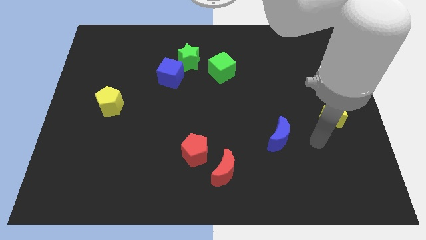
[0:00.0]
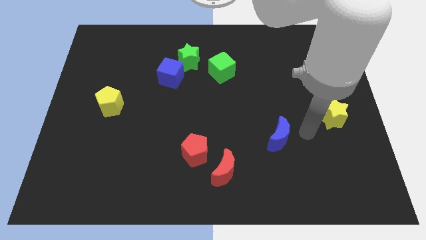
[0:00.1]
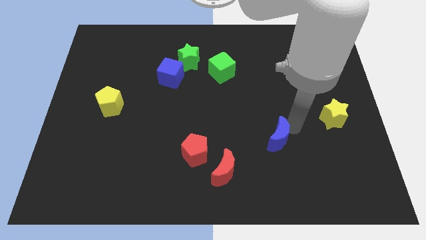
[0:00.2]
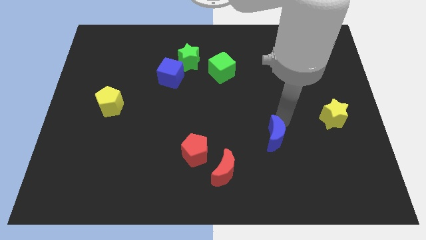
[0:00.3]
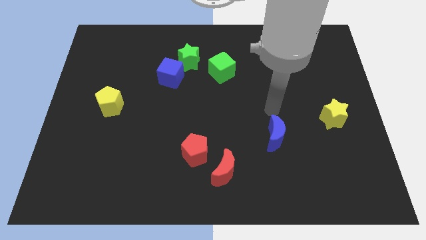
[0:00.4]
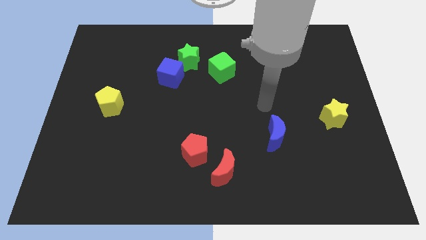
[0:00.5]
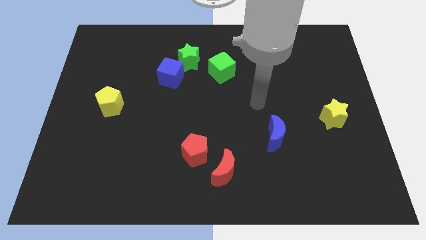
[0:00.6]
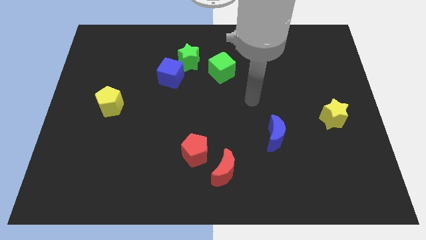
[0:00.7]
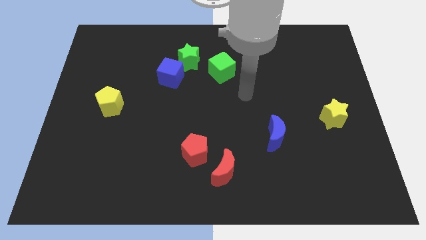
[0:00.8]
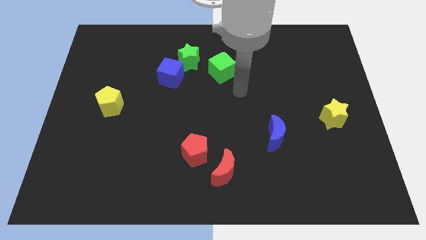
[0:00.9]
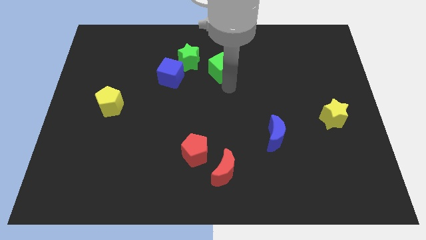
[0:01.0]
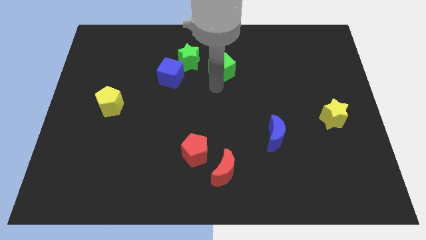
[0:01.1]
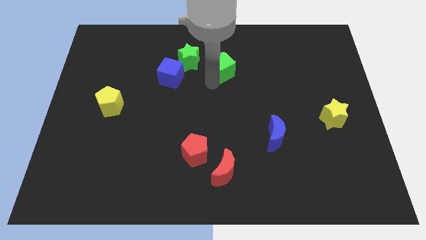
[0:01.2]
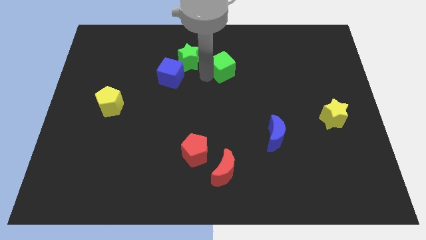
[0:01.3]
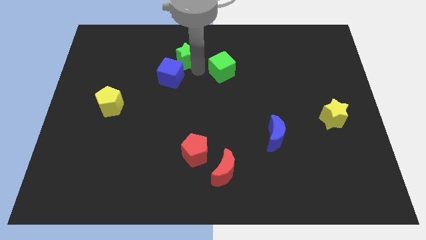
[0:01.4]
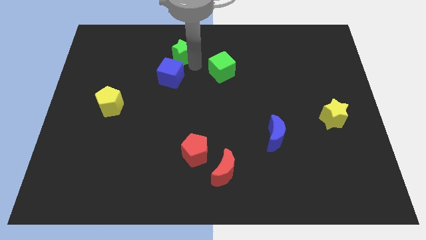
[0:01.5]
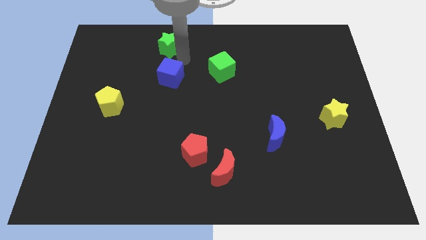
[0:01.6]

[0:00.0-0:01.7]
move the blue cube away from the green star

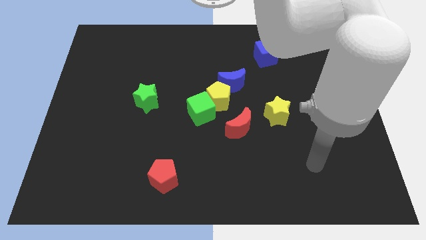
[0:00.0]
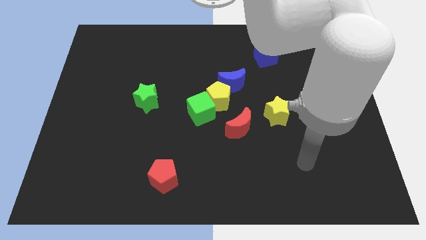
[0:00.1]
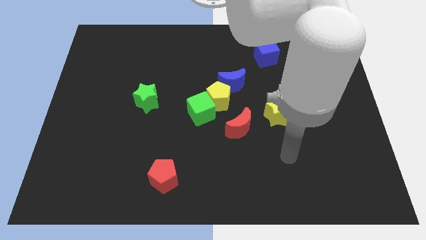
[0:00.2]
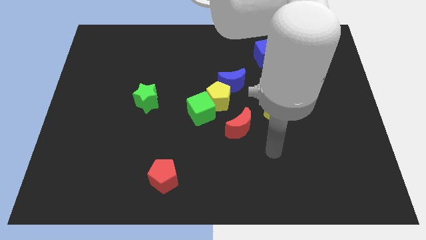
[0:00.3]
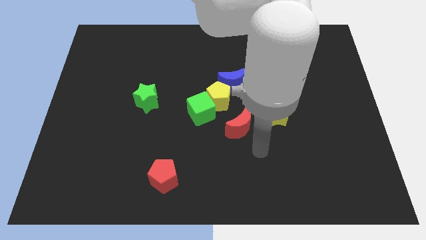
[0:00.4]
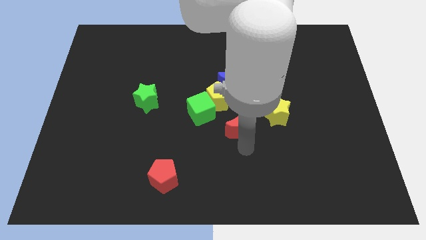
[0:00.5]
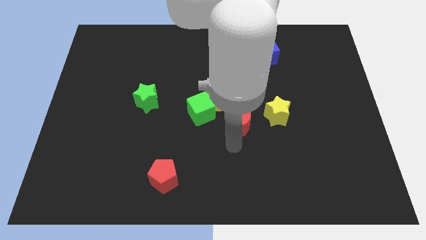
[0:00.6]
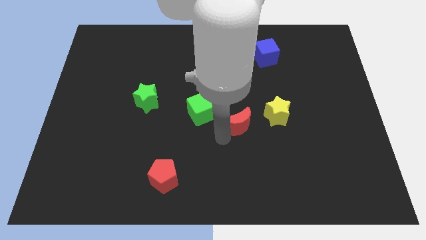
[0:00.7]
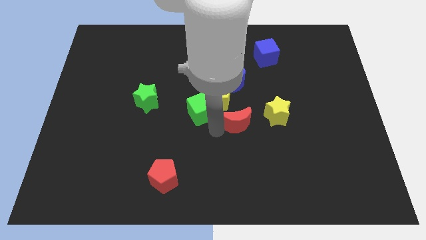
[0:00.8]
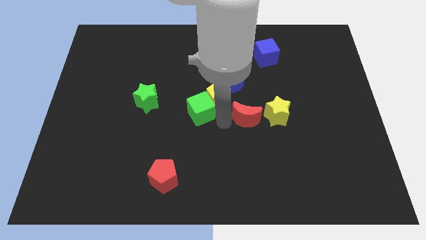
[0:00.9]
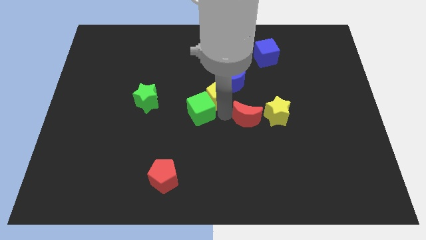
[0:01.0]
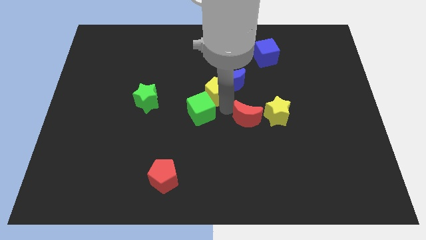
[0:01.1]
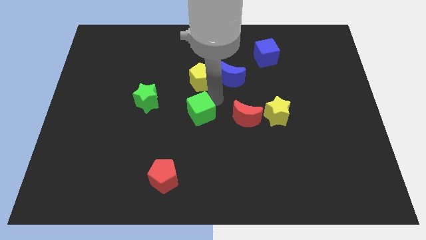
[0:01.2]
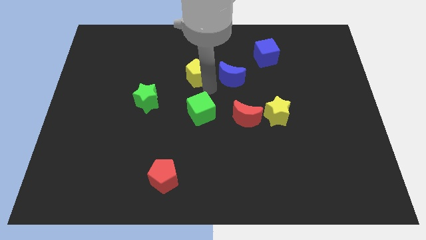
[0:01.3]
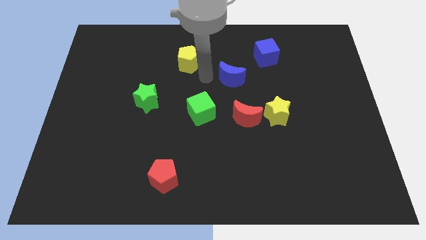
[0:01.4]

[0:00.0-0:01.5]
separate the blue moon from the yellow pentagon

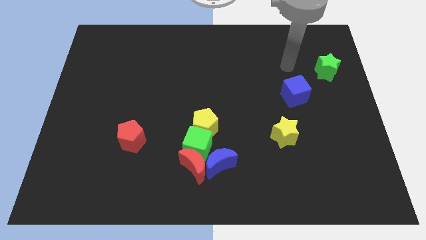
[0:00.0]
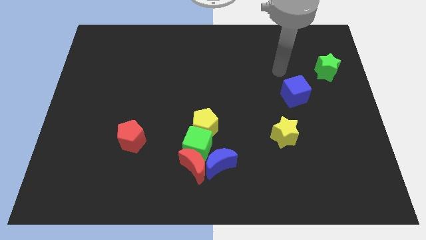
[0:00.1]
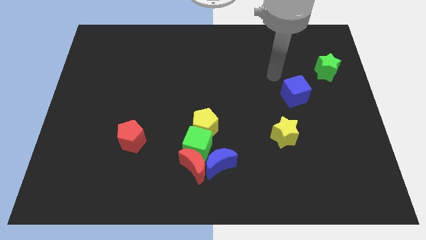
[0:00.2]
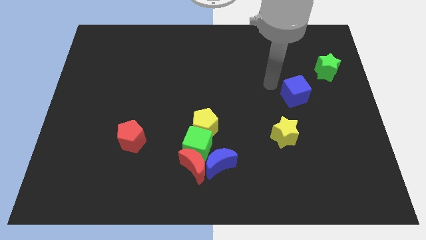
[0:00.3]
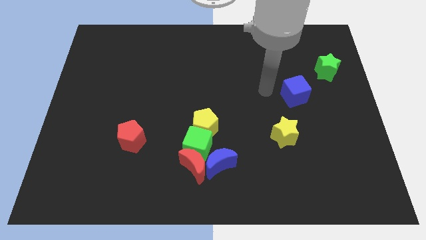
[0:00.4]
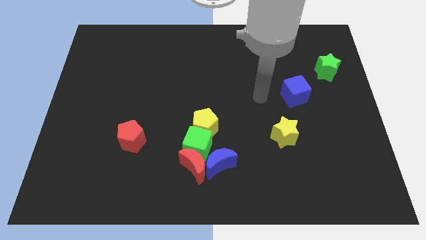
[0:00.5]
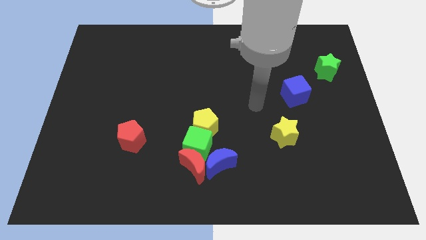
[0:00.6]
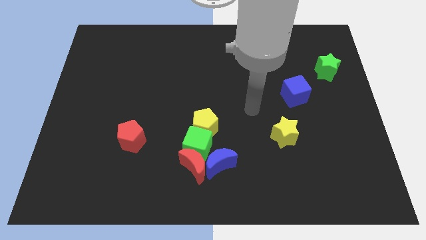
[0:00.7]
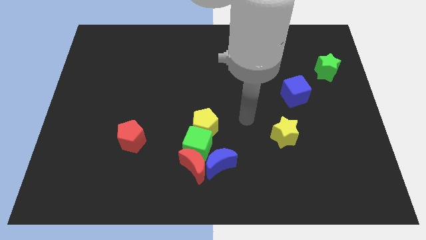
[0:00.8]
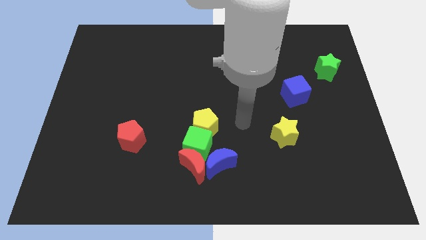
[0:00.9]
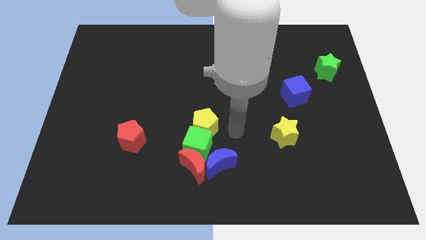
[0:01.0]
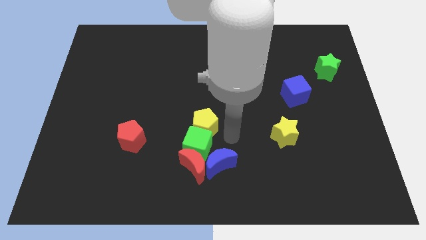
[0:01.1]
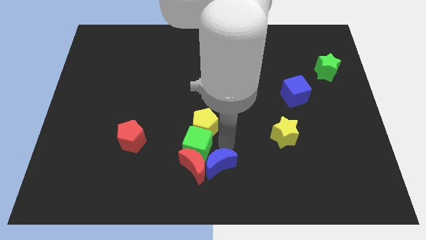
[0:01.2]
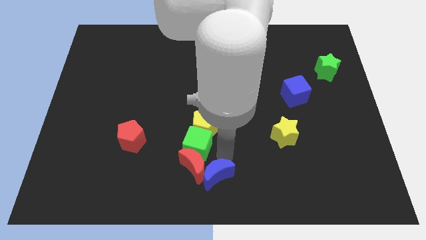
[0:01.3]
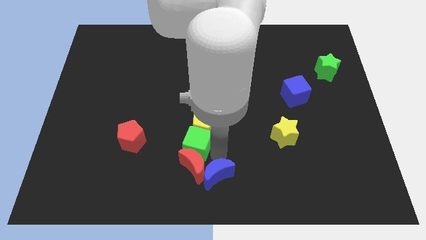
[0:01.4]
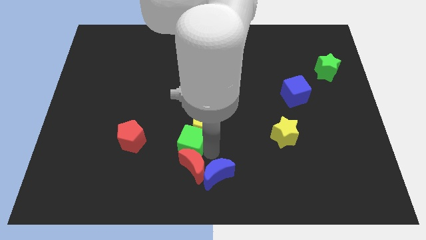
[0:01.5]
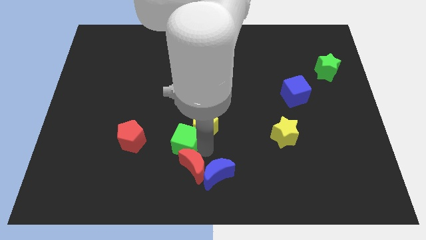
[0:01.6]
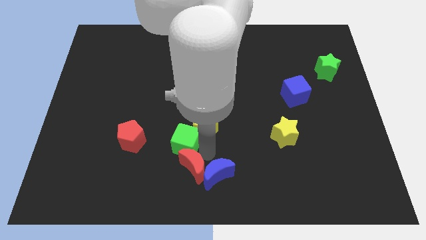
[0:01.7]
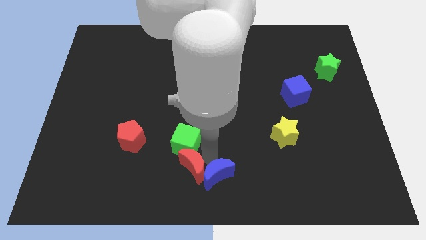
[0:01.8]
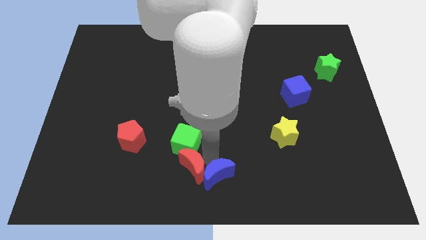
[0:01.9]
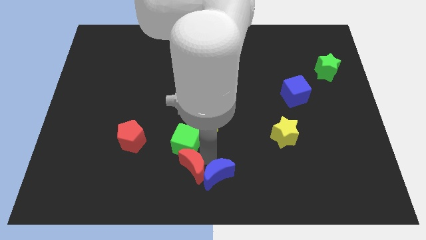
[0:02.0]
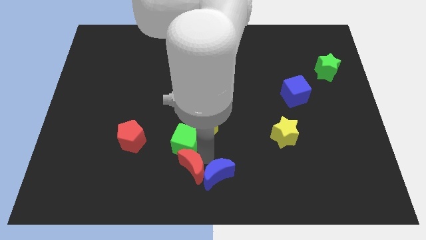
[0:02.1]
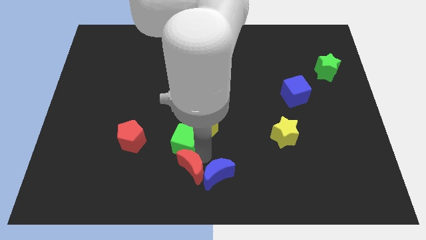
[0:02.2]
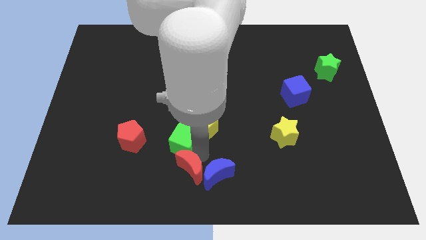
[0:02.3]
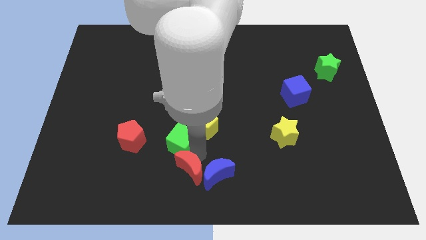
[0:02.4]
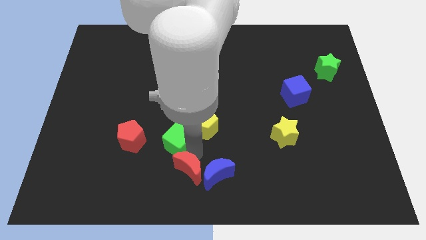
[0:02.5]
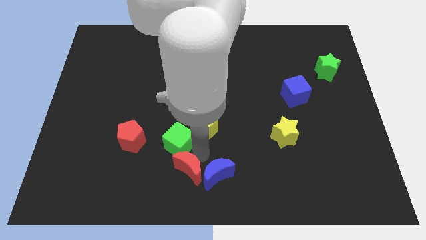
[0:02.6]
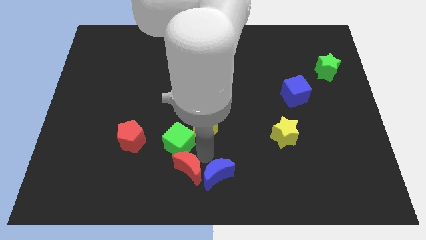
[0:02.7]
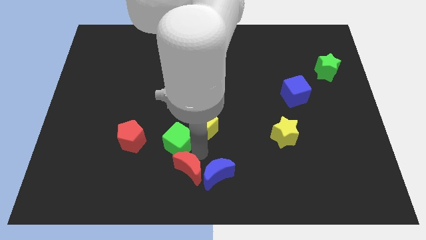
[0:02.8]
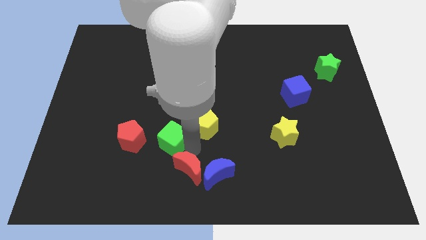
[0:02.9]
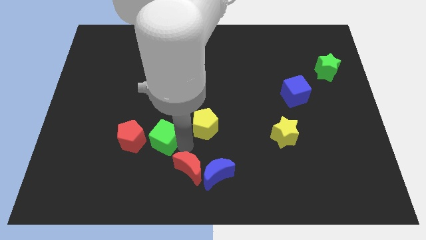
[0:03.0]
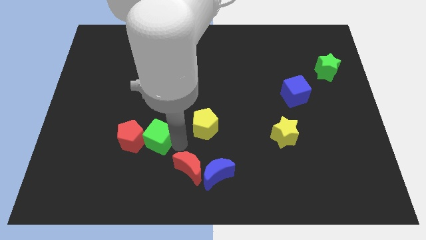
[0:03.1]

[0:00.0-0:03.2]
pull the green cube apart from the red moon, yellow pentagon, and blue moon

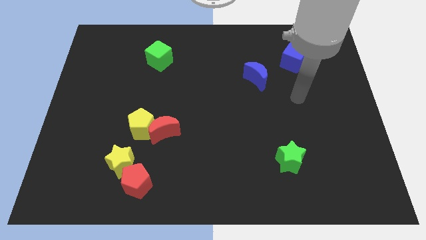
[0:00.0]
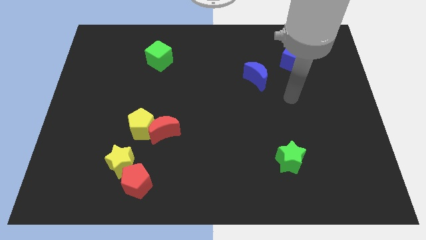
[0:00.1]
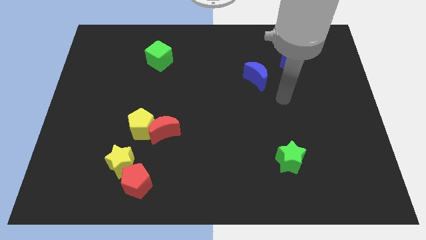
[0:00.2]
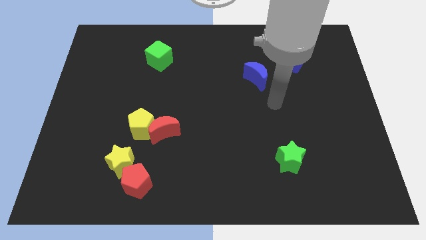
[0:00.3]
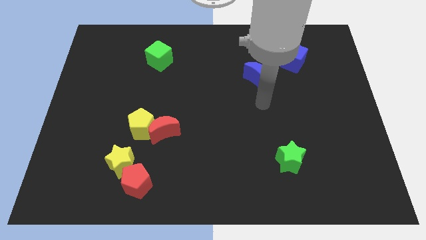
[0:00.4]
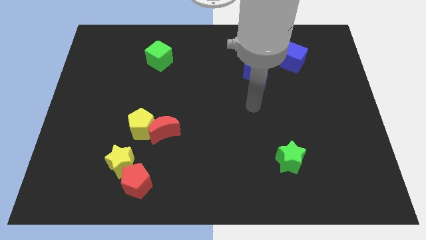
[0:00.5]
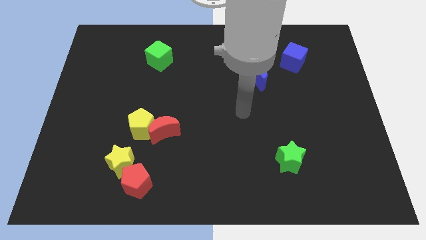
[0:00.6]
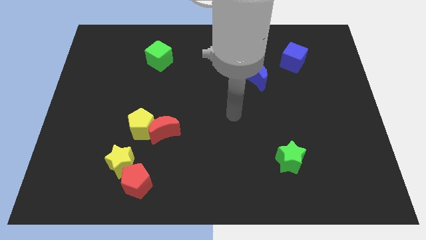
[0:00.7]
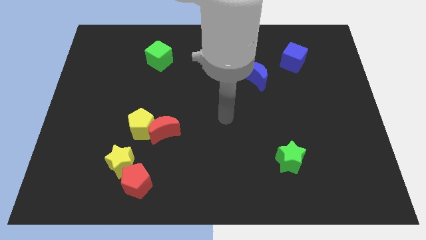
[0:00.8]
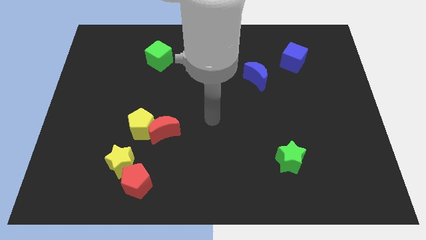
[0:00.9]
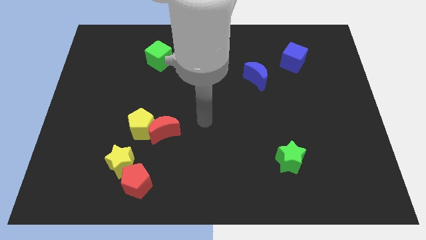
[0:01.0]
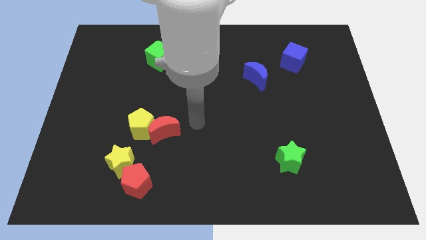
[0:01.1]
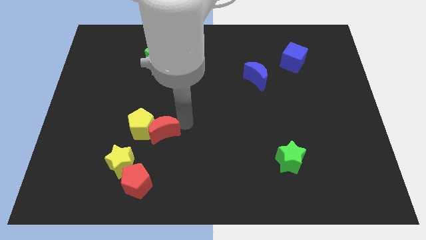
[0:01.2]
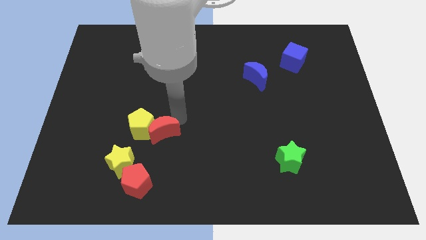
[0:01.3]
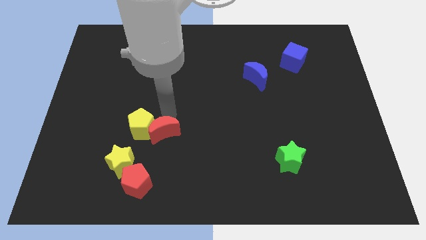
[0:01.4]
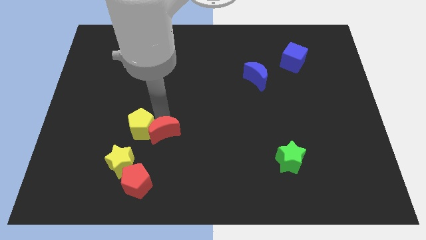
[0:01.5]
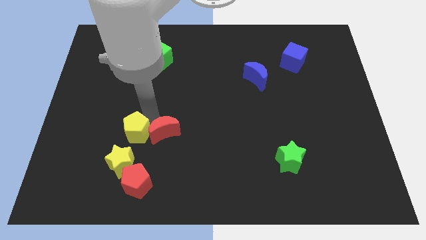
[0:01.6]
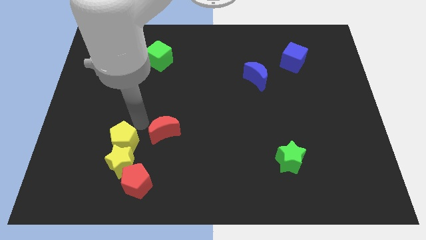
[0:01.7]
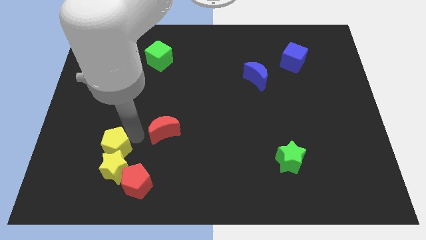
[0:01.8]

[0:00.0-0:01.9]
separate the red moon from the yellow pentagon

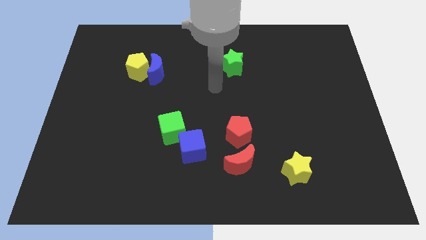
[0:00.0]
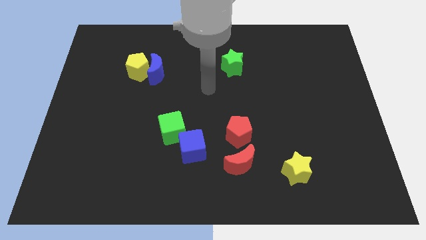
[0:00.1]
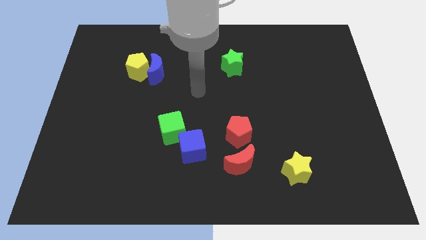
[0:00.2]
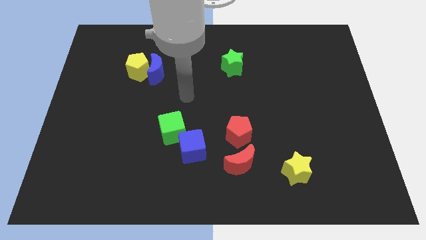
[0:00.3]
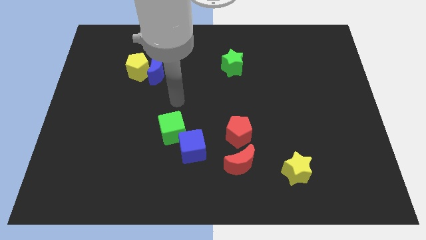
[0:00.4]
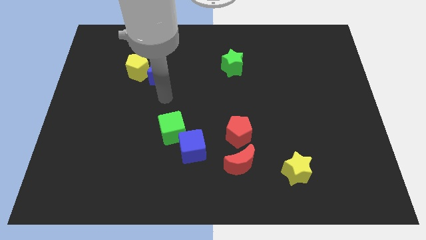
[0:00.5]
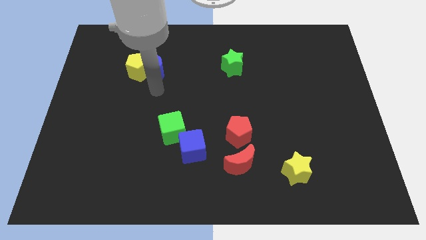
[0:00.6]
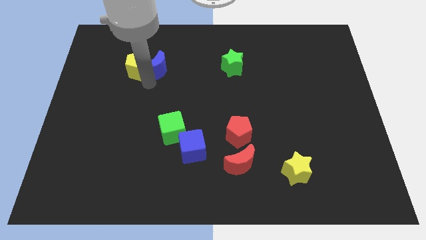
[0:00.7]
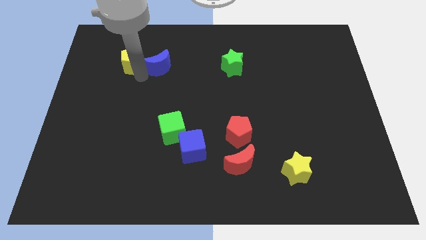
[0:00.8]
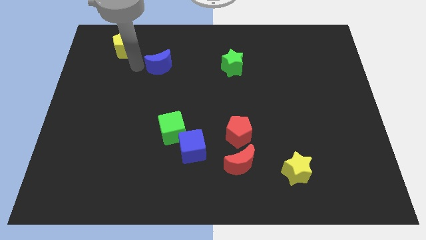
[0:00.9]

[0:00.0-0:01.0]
move the blue moon away from the yellow pentagon
